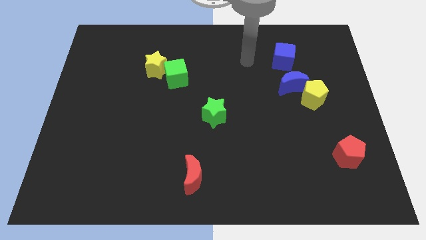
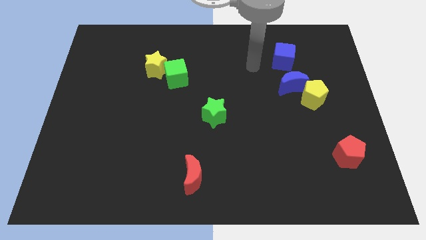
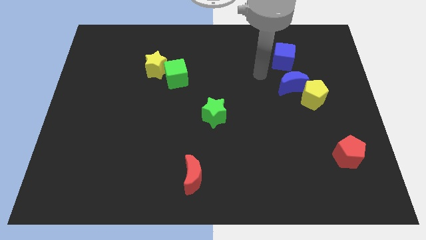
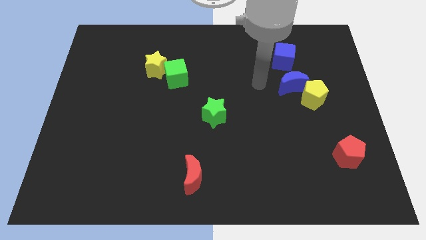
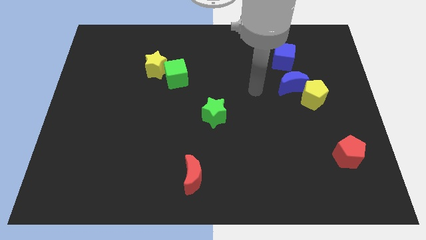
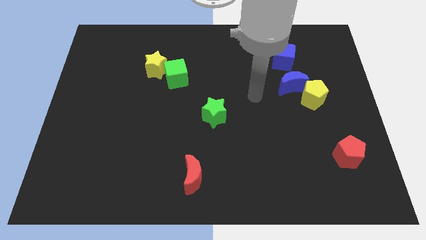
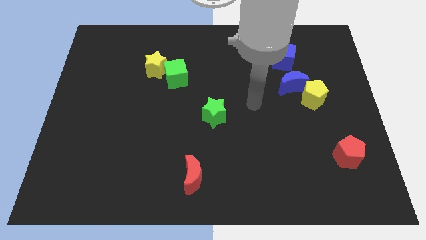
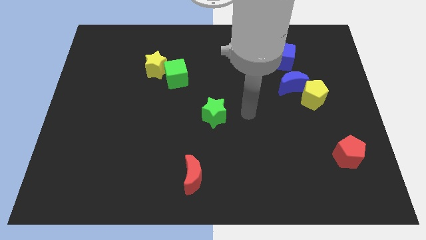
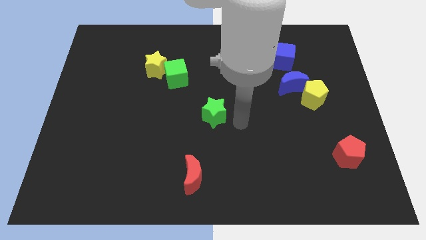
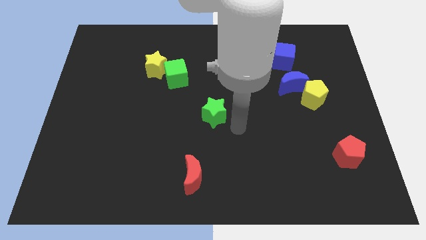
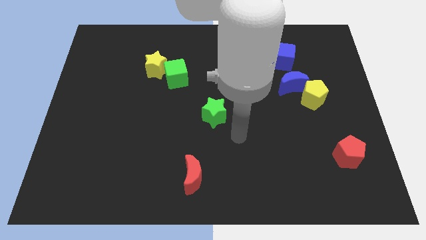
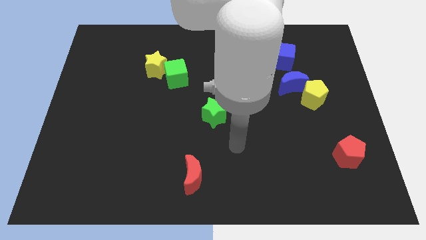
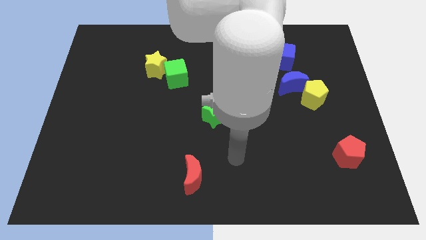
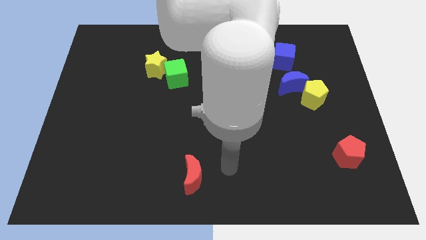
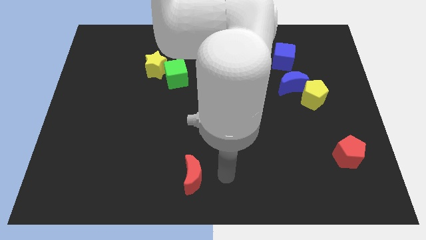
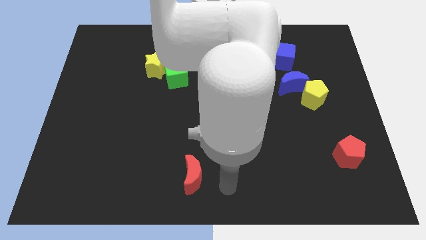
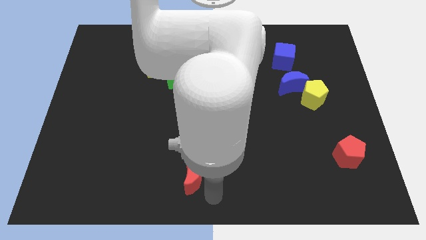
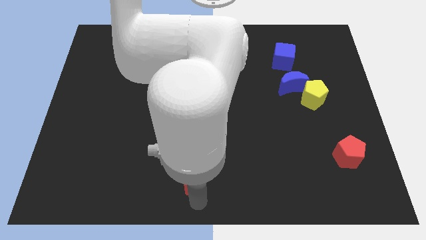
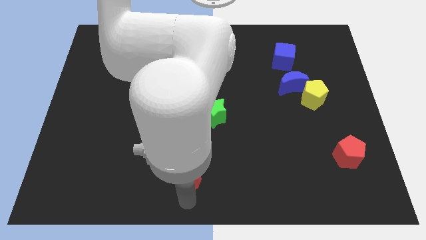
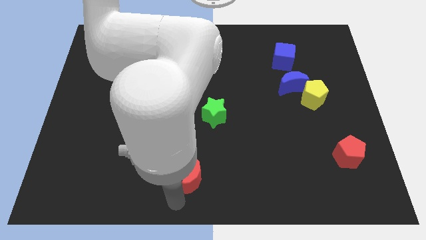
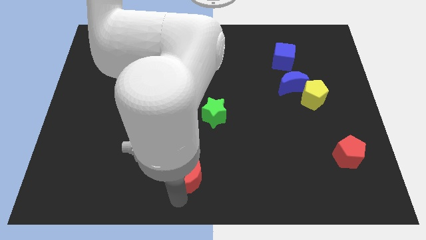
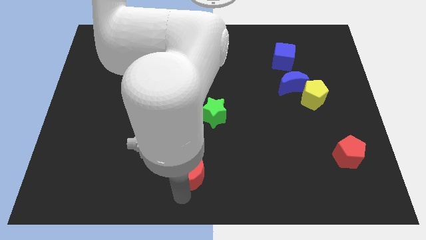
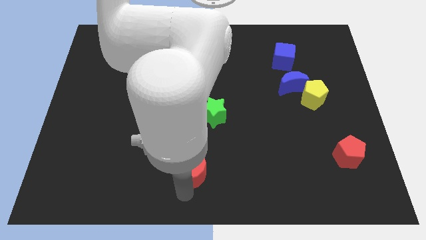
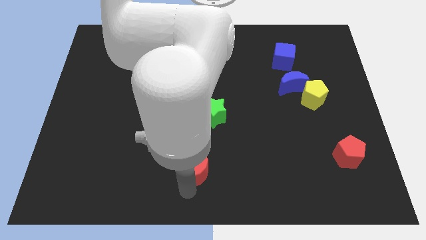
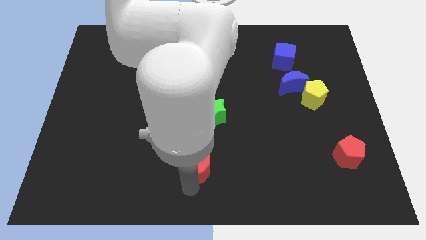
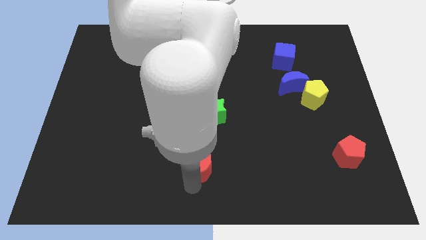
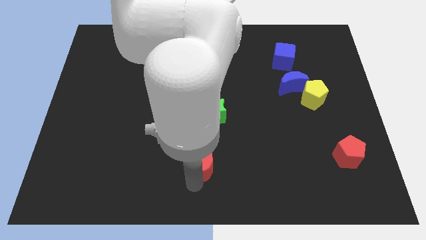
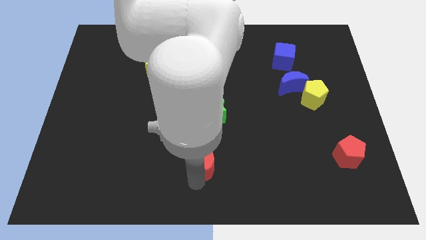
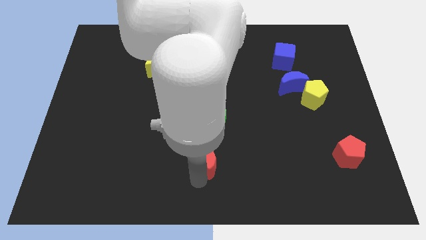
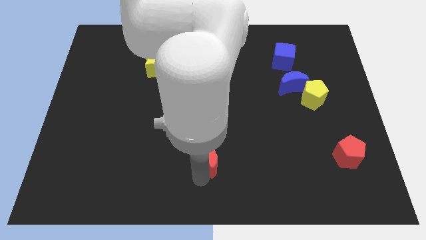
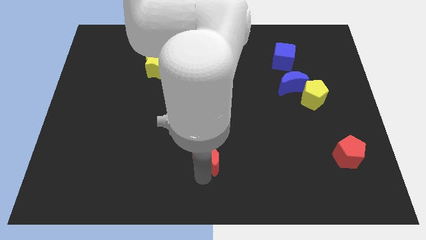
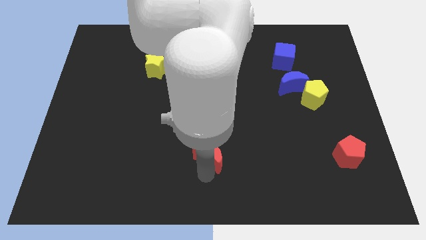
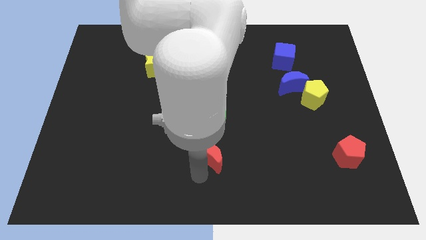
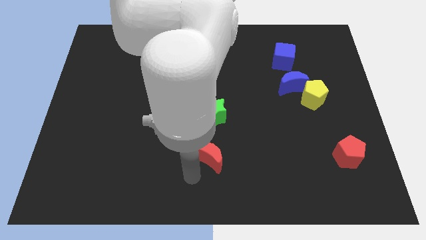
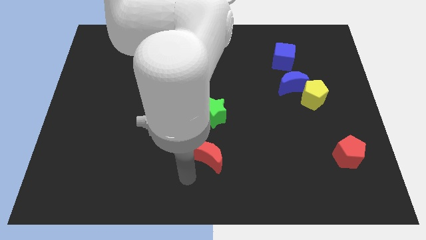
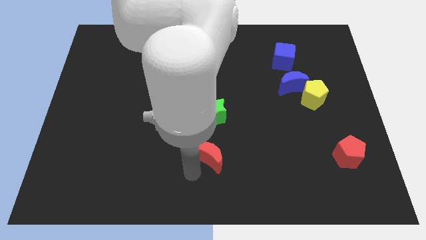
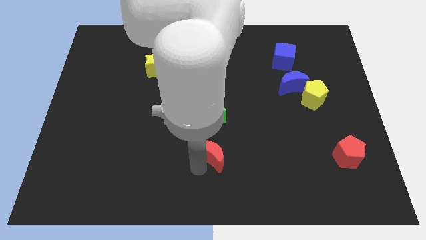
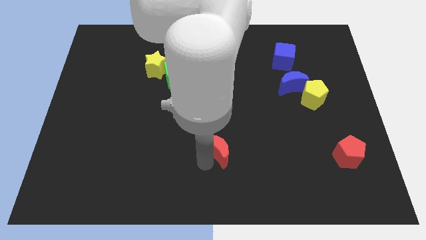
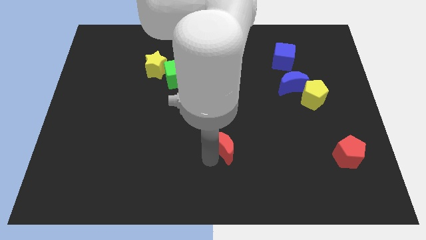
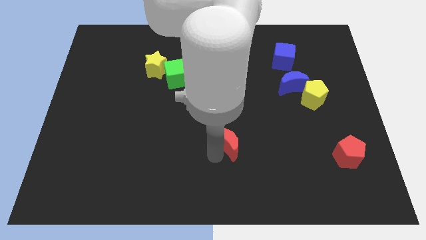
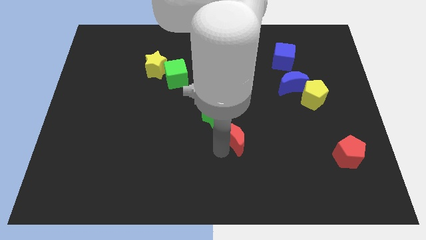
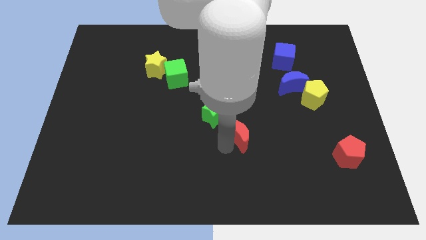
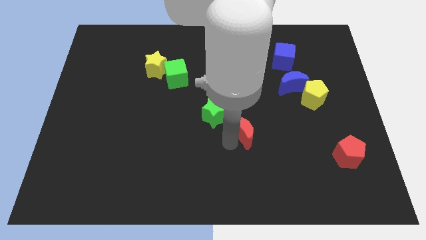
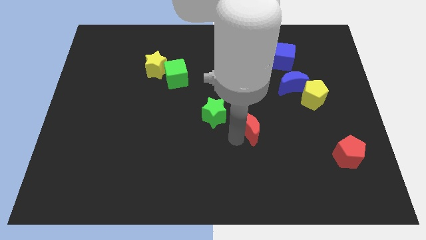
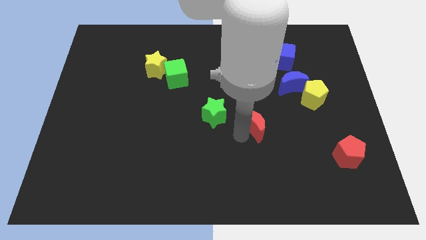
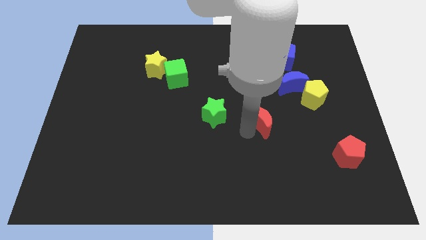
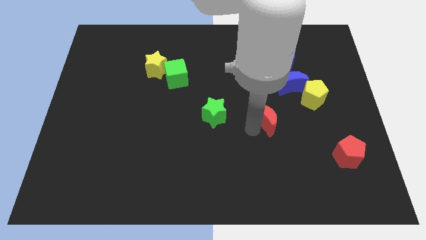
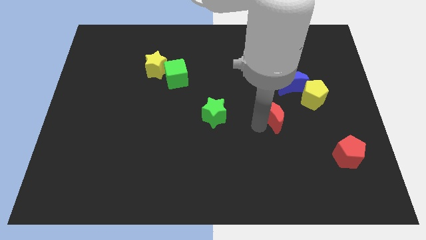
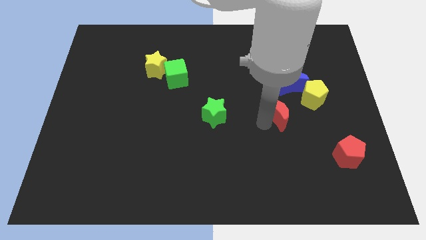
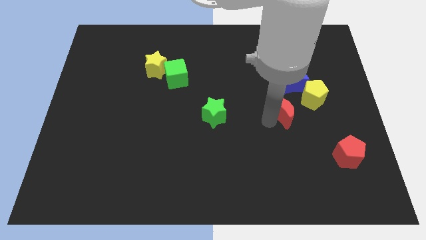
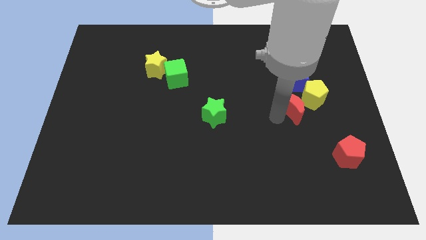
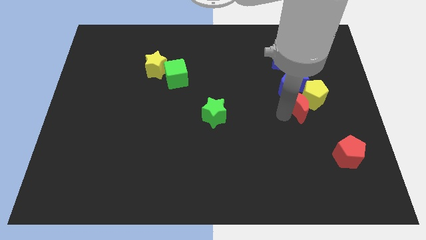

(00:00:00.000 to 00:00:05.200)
move the red moon to the yellow pentagon

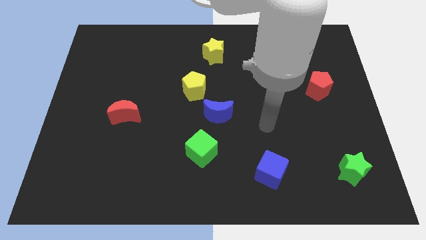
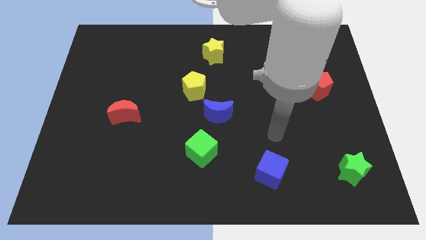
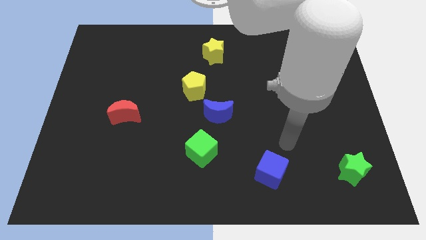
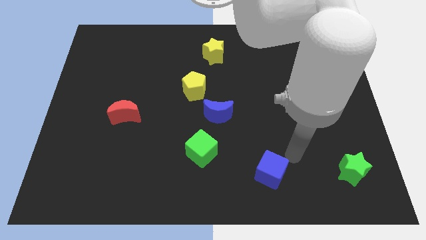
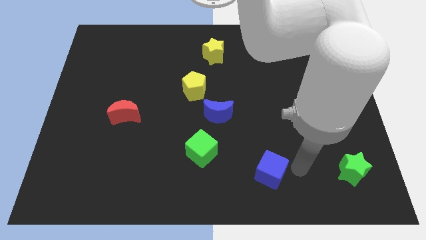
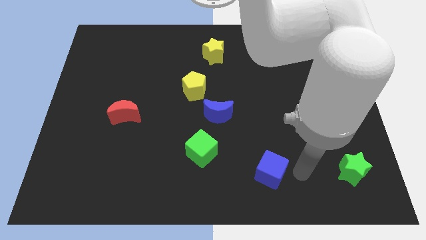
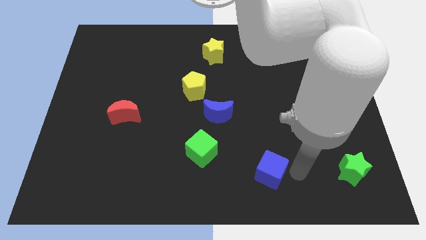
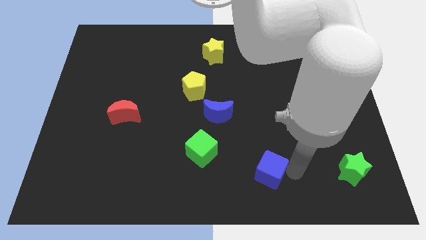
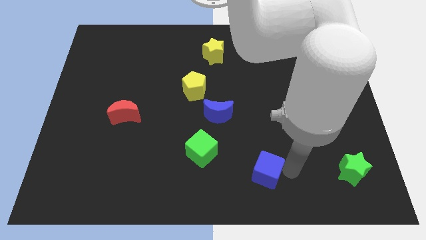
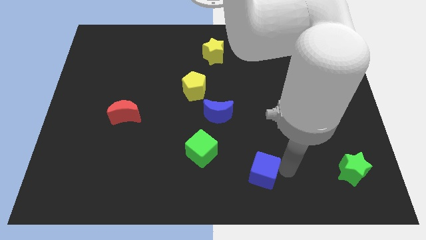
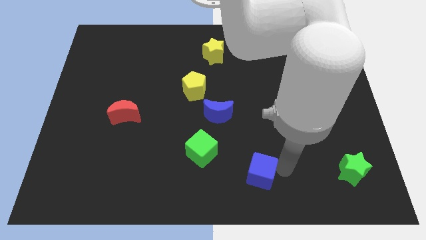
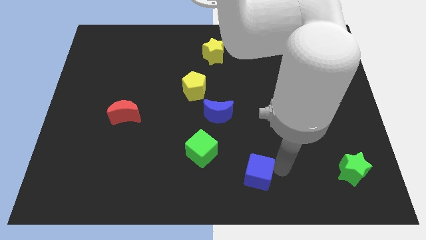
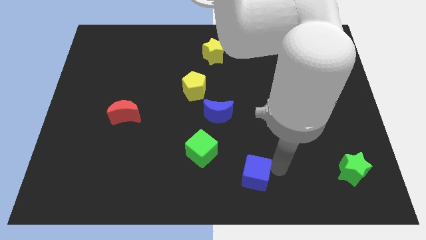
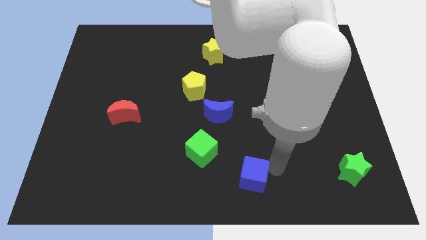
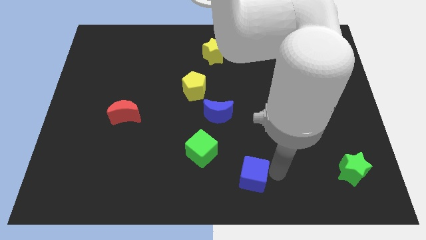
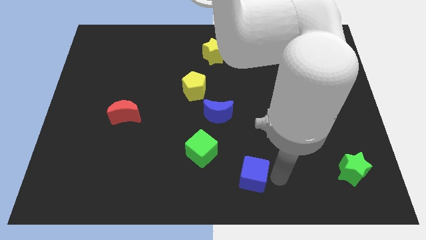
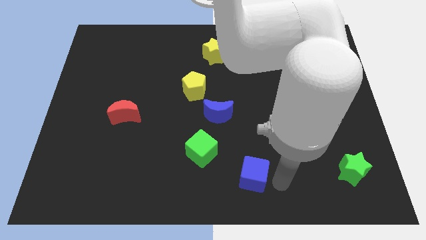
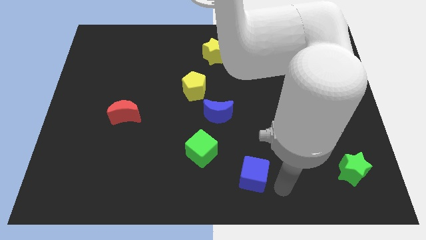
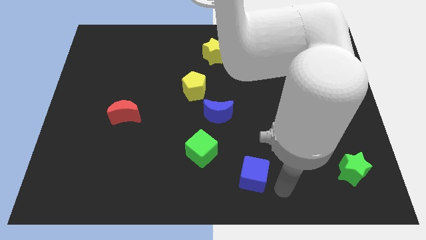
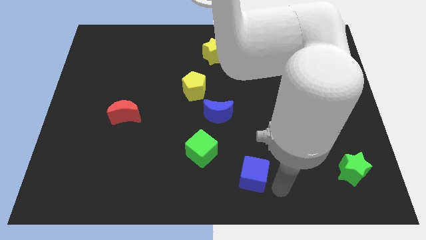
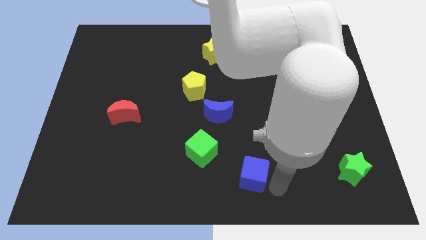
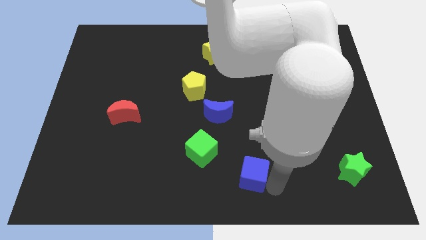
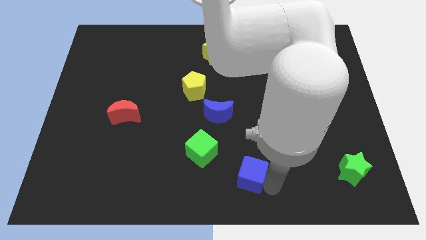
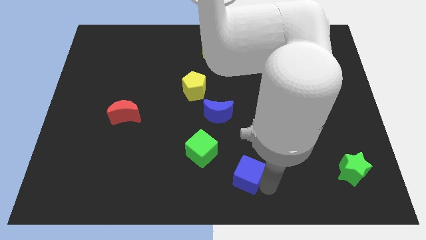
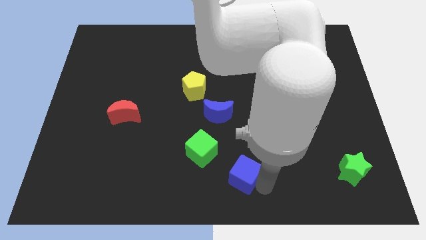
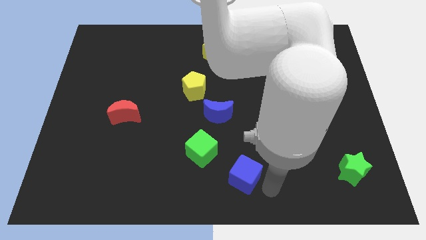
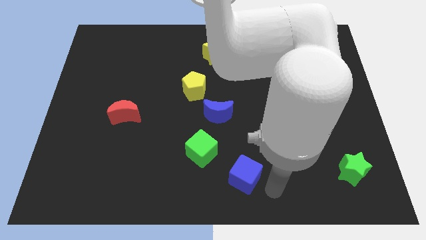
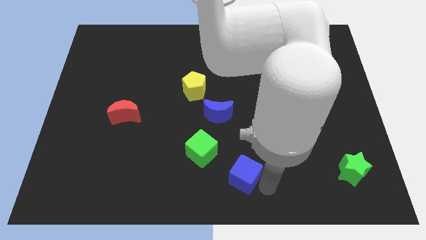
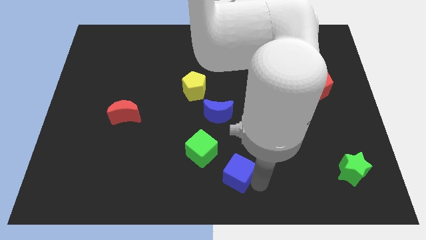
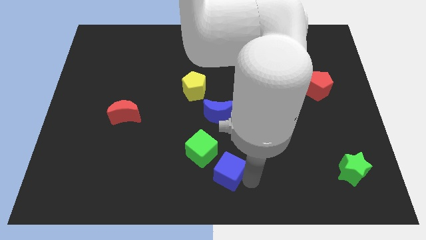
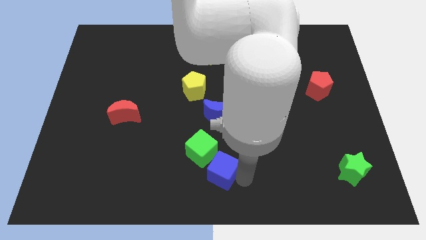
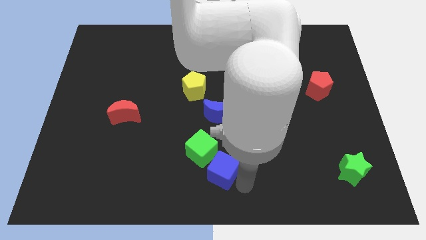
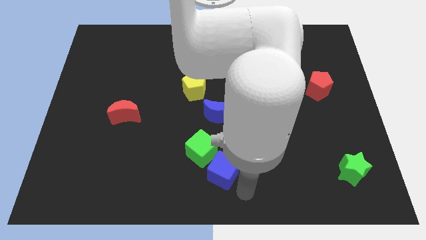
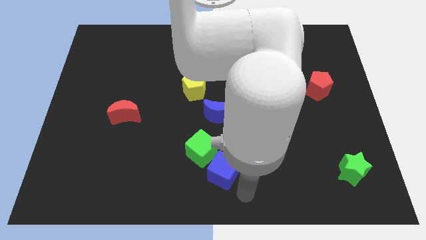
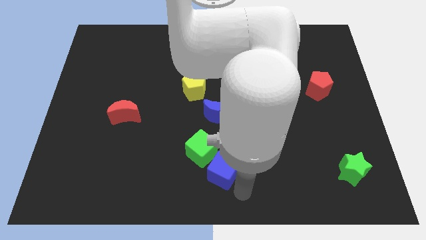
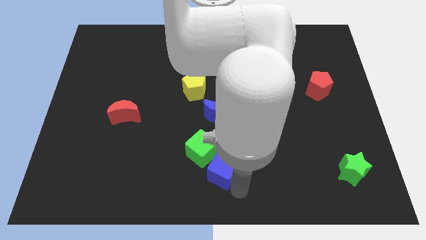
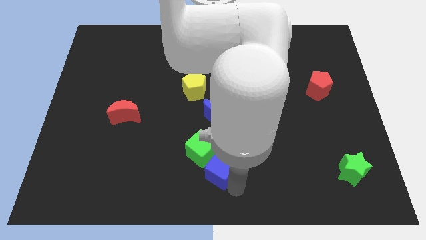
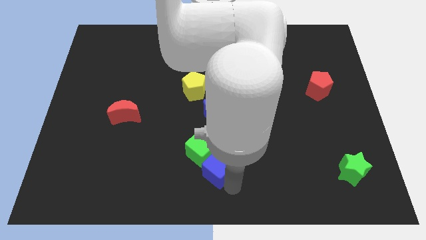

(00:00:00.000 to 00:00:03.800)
put the blue cube towards the green cube
